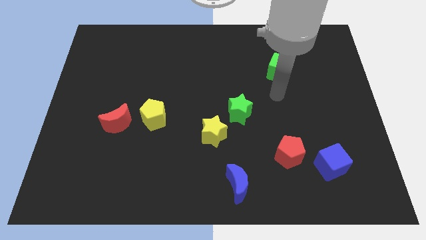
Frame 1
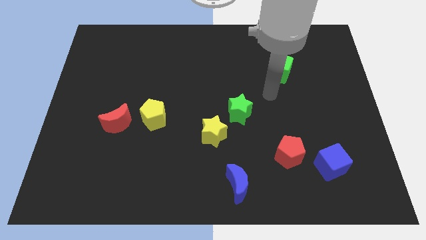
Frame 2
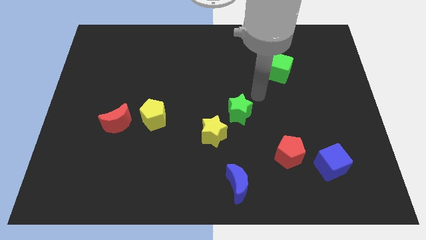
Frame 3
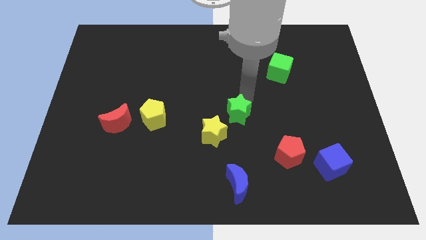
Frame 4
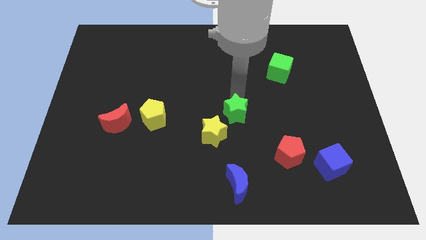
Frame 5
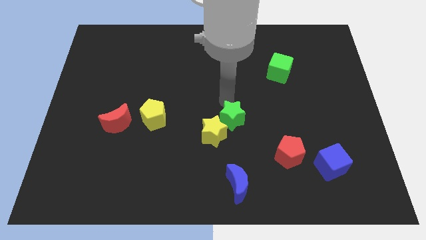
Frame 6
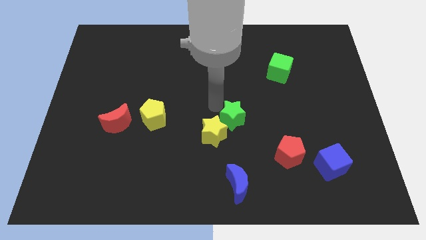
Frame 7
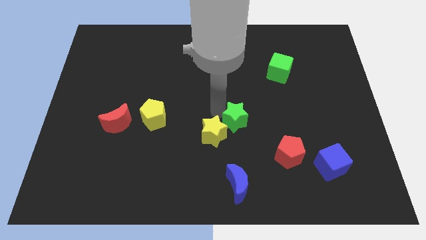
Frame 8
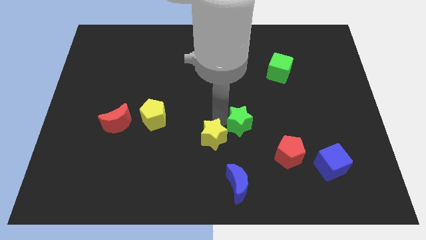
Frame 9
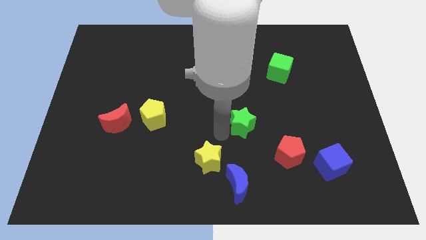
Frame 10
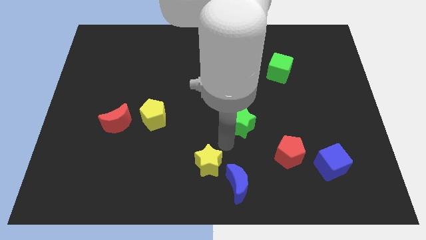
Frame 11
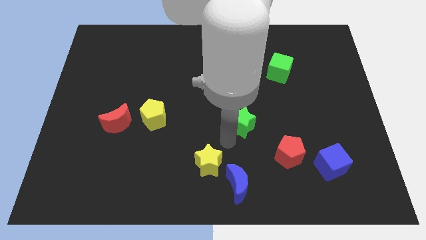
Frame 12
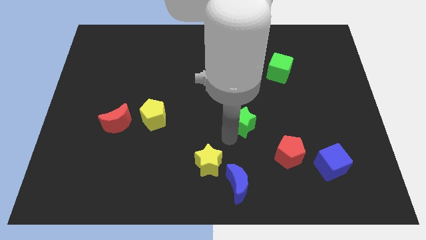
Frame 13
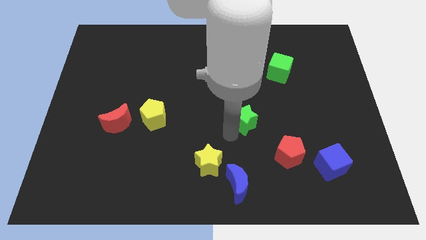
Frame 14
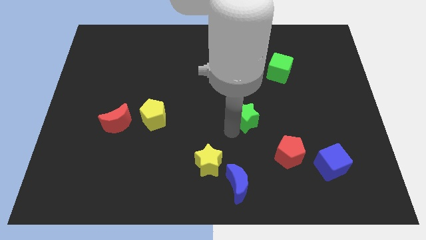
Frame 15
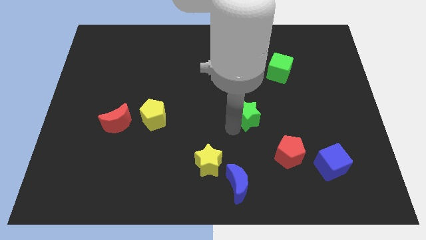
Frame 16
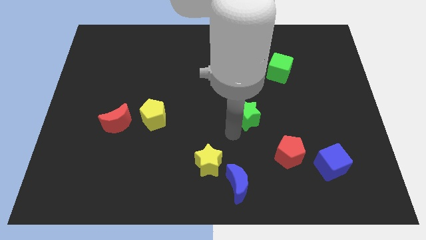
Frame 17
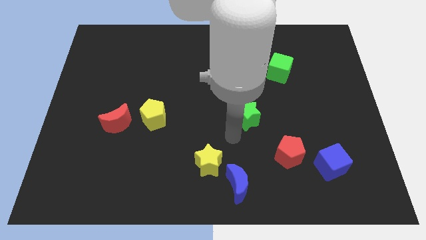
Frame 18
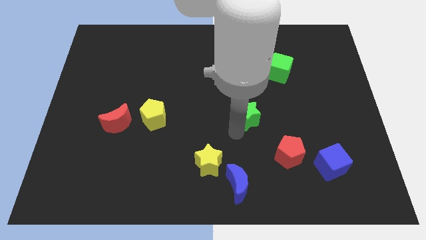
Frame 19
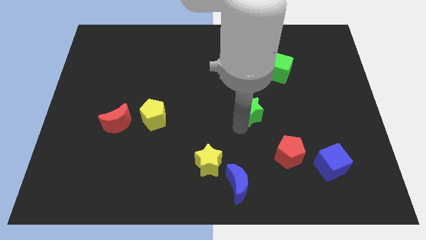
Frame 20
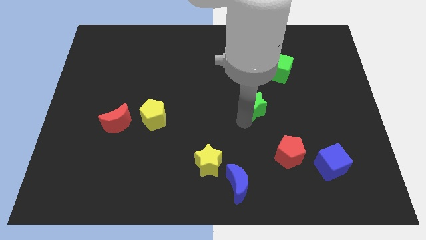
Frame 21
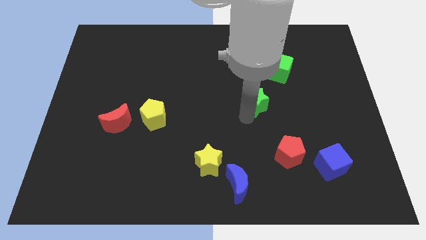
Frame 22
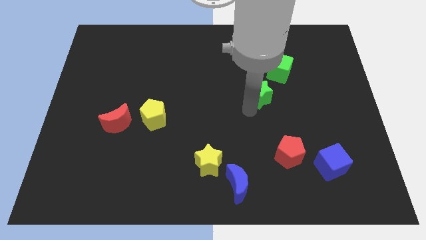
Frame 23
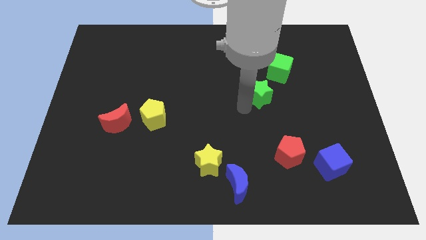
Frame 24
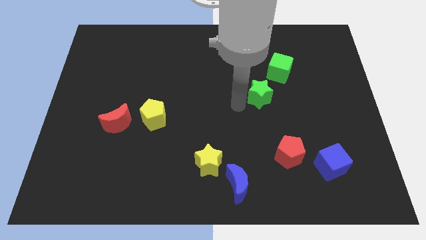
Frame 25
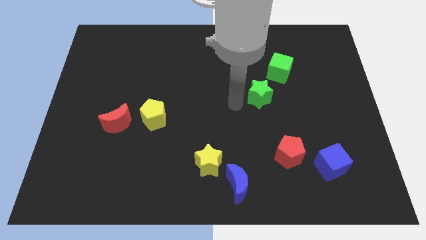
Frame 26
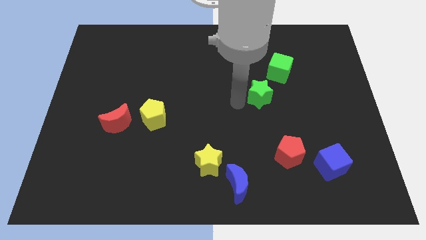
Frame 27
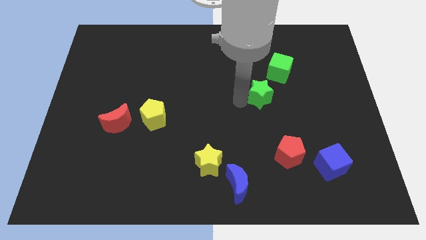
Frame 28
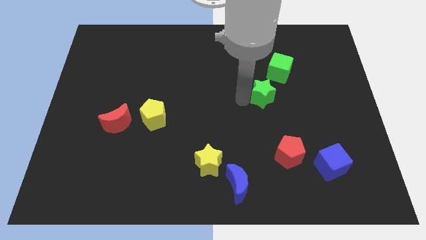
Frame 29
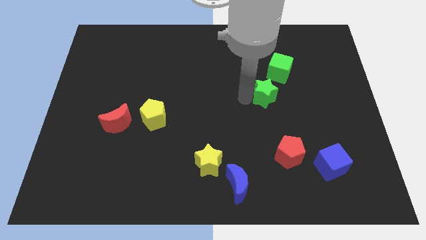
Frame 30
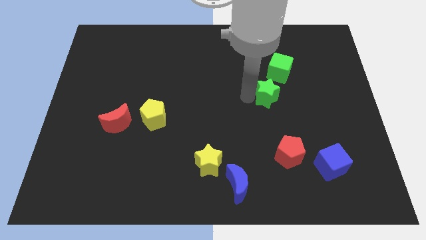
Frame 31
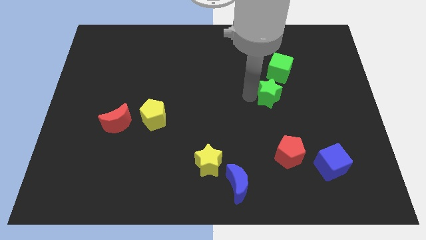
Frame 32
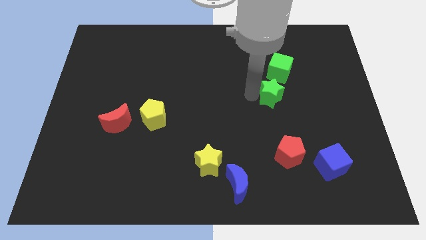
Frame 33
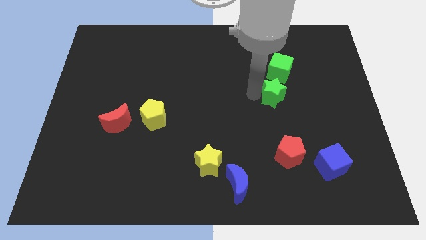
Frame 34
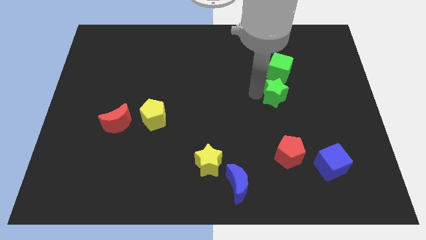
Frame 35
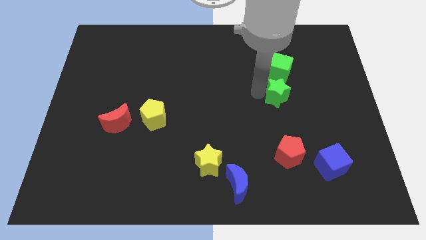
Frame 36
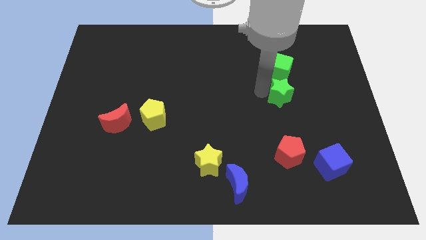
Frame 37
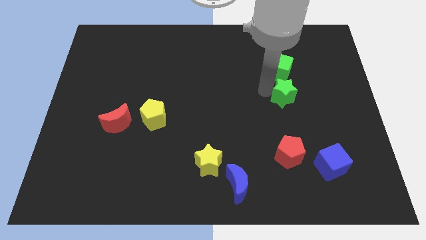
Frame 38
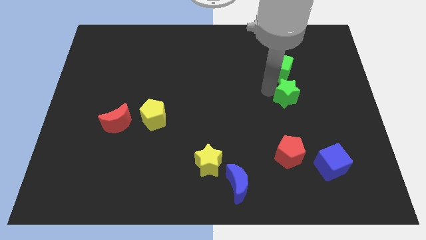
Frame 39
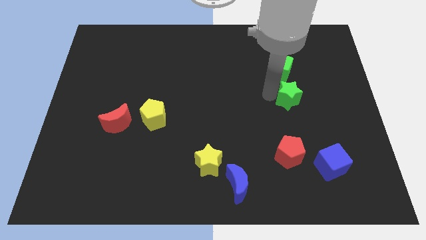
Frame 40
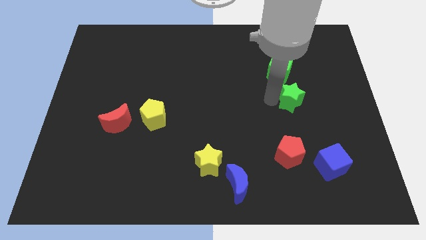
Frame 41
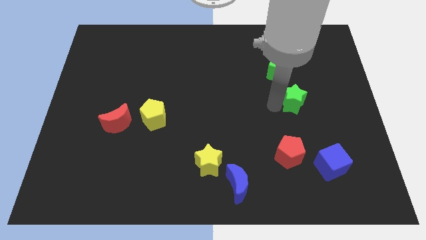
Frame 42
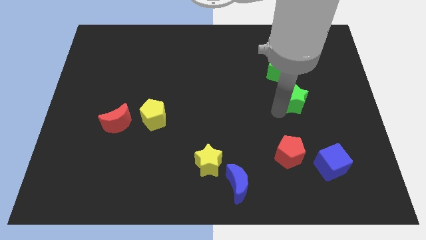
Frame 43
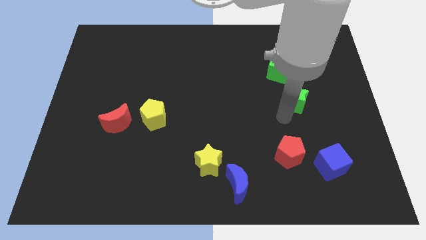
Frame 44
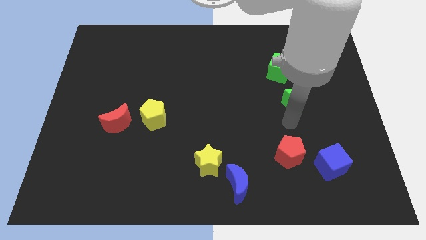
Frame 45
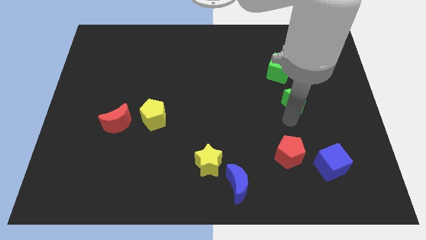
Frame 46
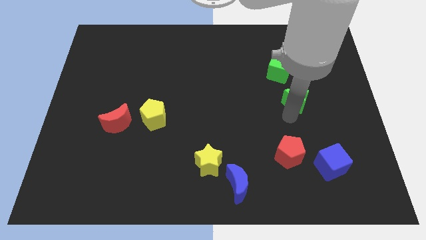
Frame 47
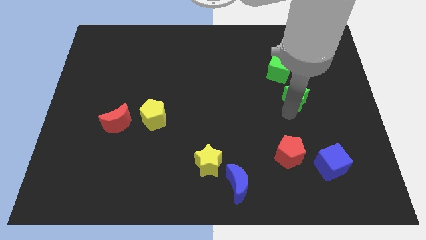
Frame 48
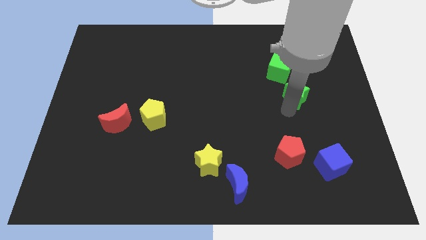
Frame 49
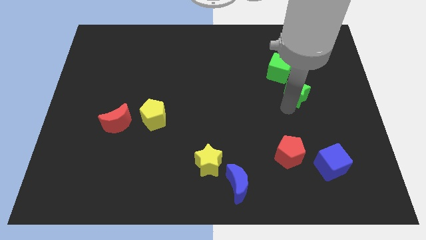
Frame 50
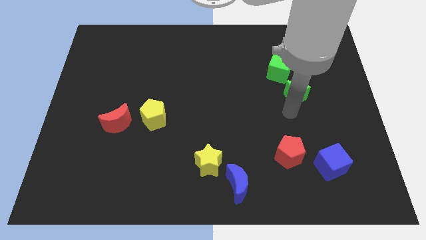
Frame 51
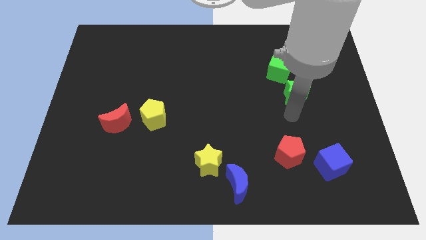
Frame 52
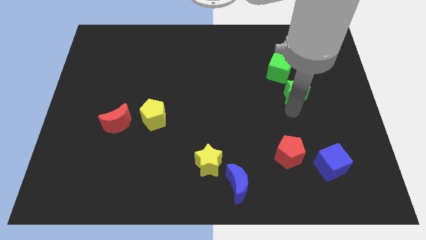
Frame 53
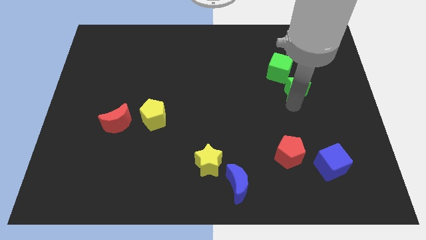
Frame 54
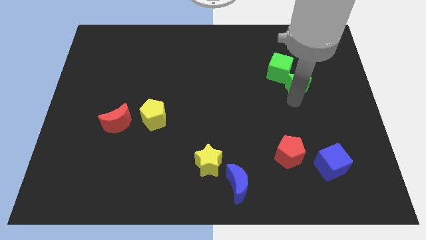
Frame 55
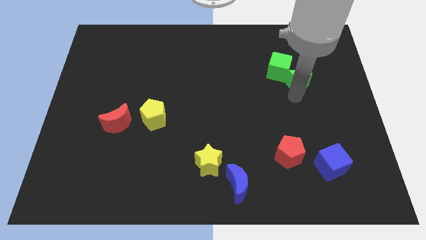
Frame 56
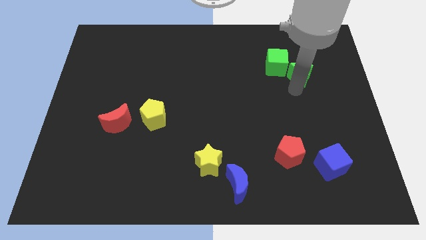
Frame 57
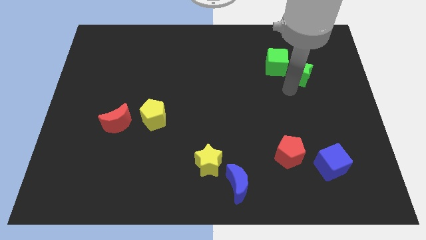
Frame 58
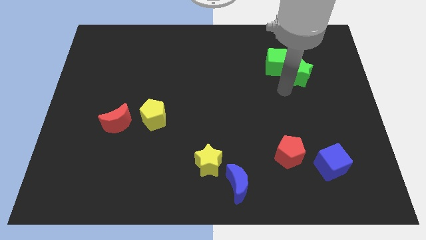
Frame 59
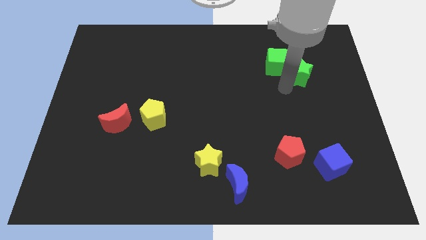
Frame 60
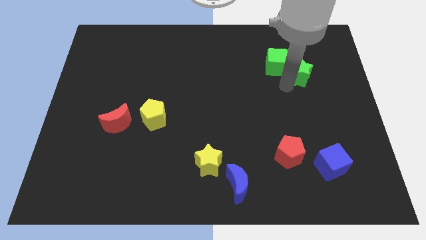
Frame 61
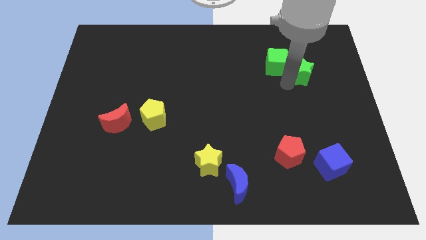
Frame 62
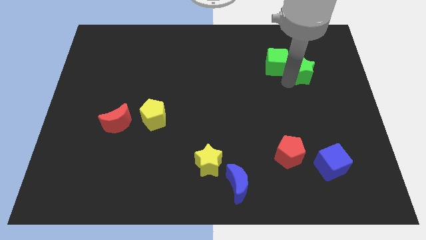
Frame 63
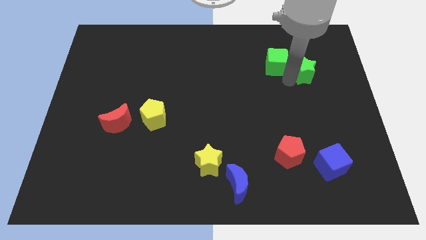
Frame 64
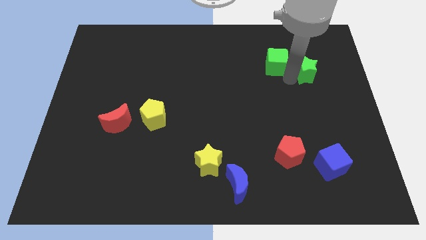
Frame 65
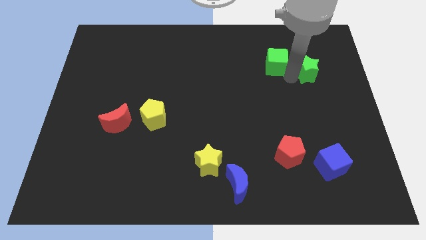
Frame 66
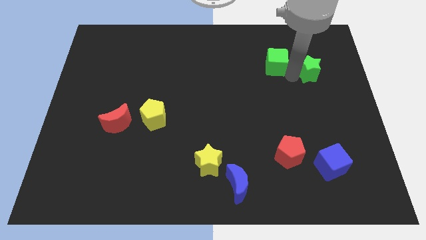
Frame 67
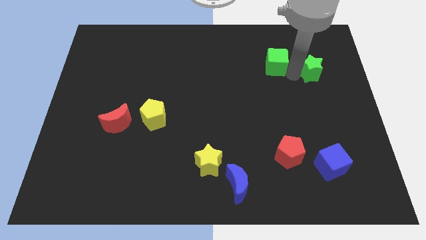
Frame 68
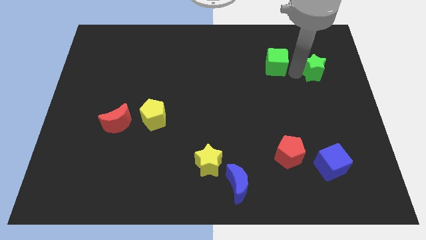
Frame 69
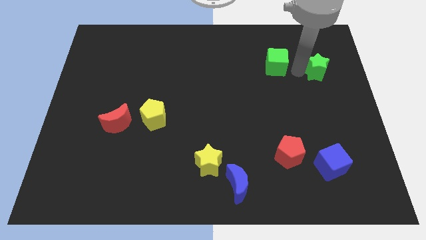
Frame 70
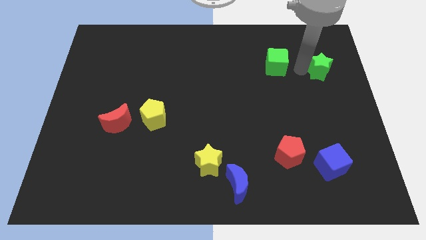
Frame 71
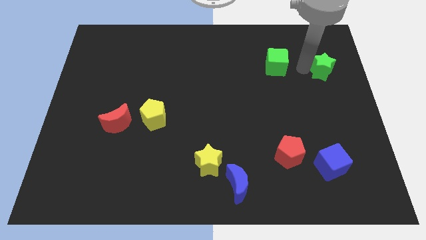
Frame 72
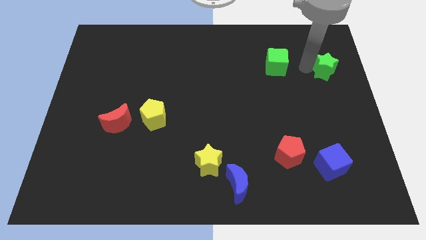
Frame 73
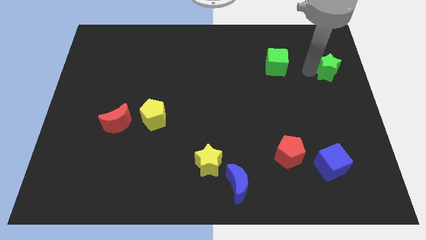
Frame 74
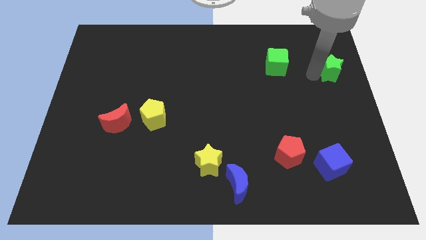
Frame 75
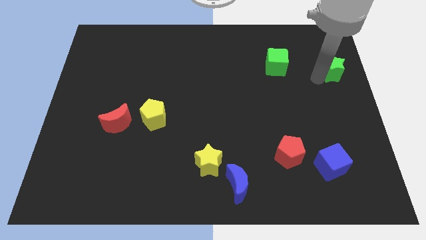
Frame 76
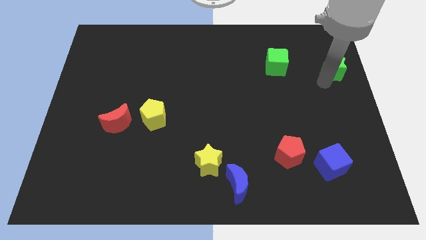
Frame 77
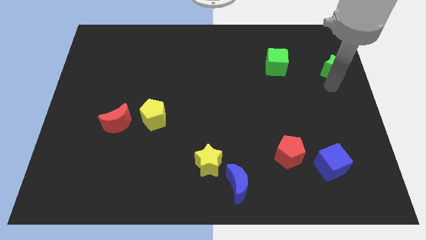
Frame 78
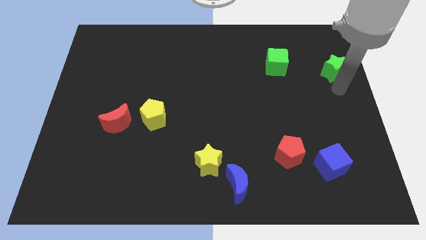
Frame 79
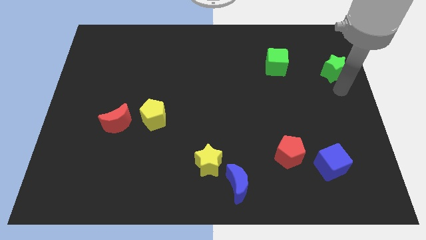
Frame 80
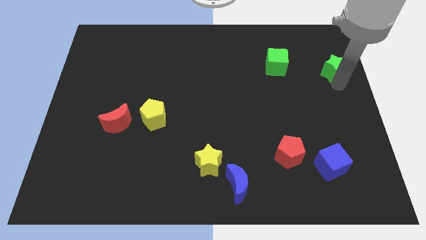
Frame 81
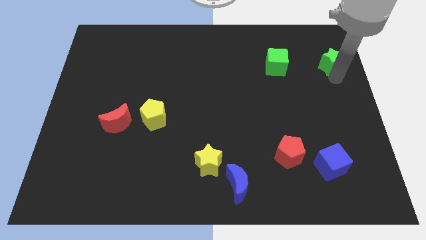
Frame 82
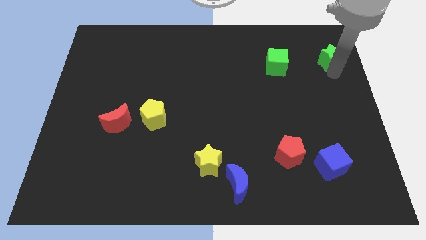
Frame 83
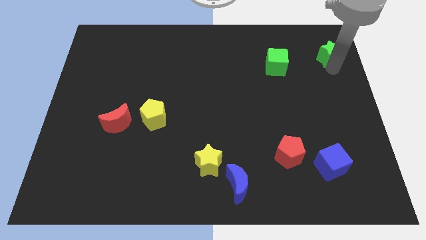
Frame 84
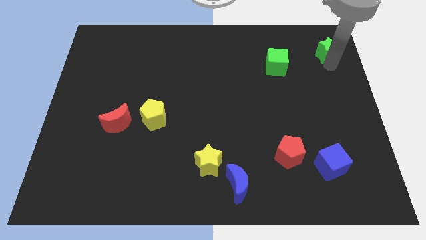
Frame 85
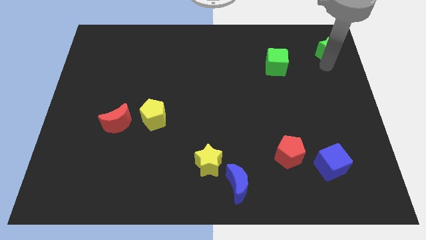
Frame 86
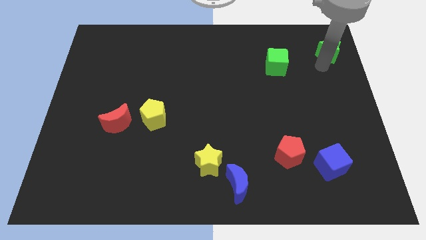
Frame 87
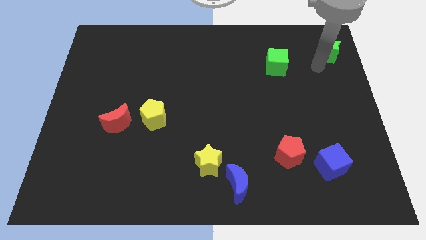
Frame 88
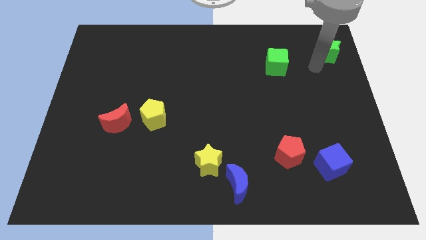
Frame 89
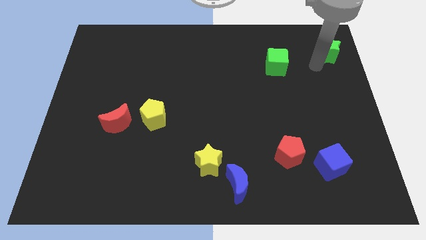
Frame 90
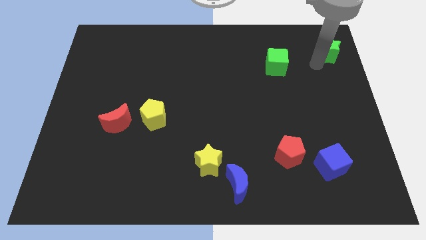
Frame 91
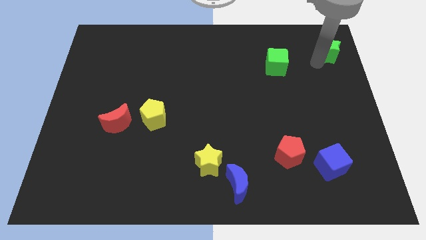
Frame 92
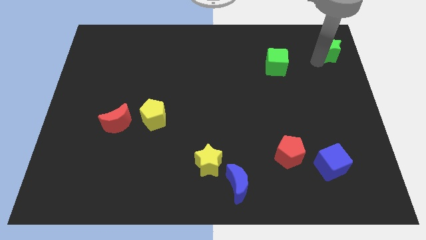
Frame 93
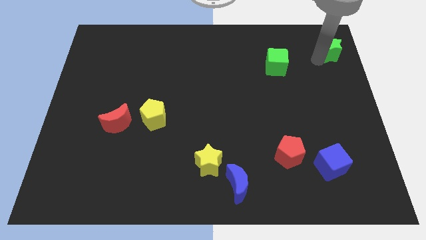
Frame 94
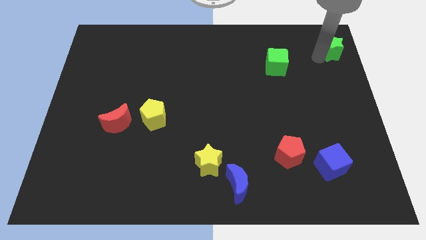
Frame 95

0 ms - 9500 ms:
push the green star to the upper right corner
